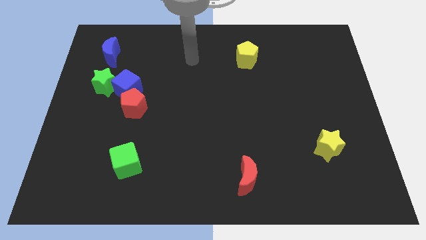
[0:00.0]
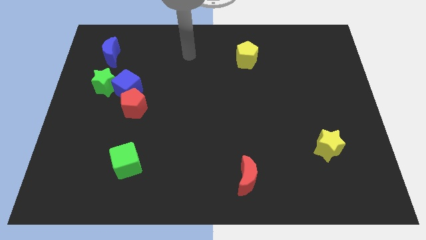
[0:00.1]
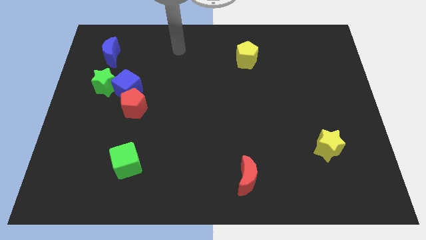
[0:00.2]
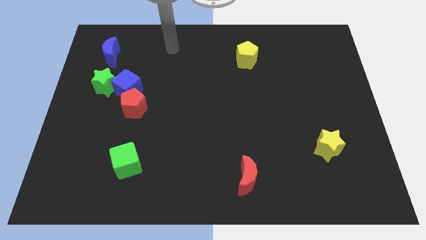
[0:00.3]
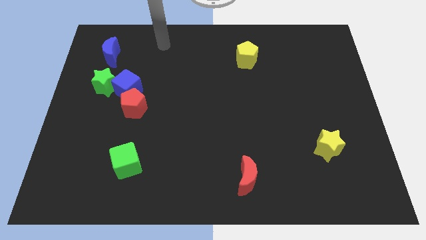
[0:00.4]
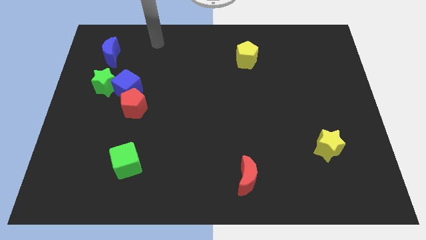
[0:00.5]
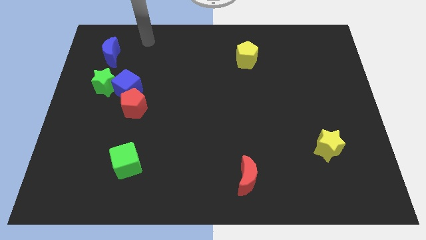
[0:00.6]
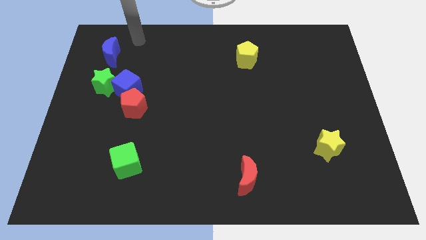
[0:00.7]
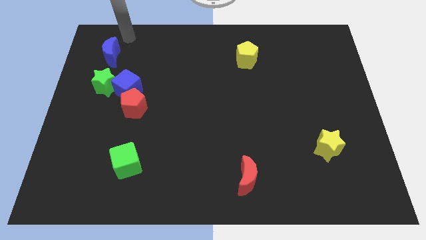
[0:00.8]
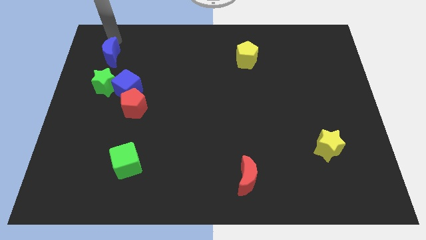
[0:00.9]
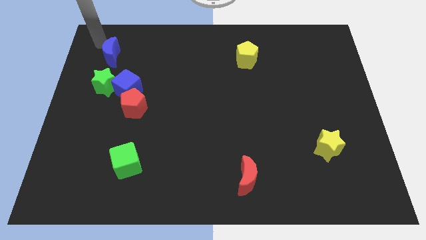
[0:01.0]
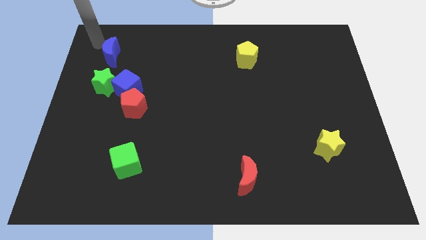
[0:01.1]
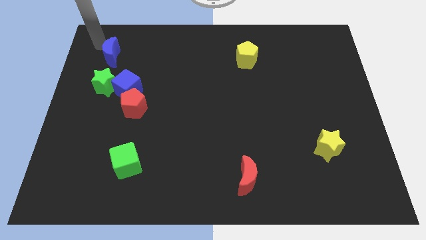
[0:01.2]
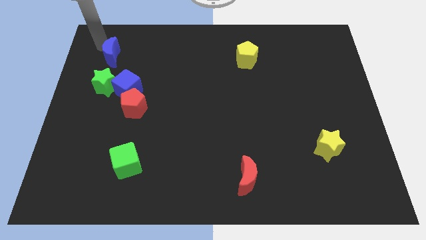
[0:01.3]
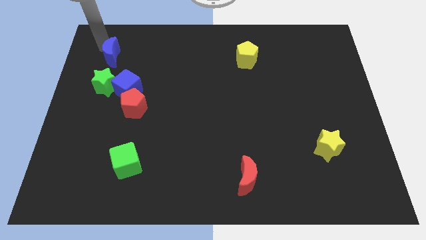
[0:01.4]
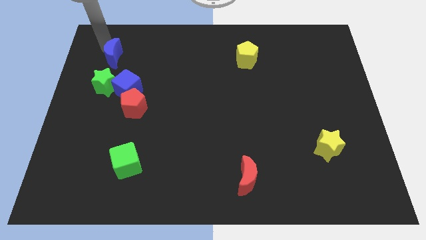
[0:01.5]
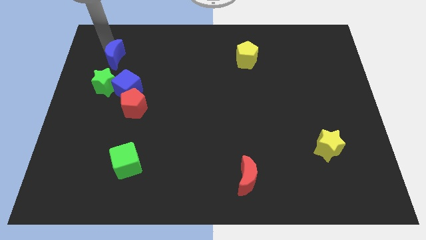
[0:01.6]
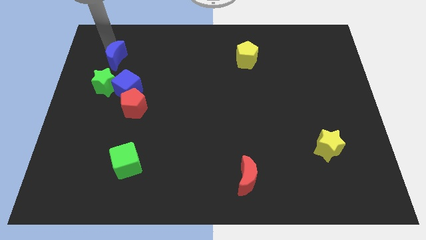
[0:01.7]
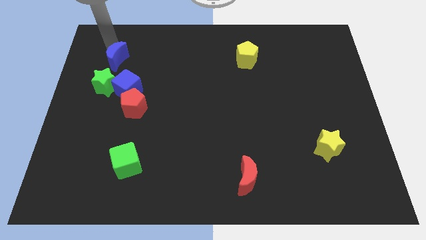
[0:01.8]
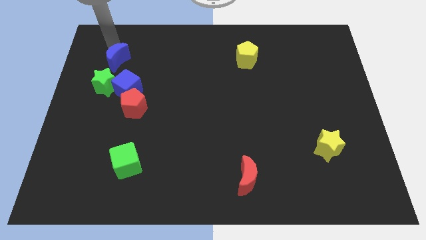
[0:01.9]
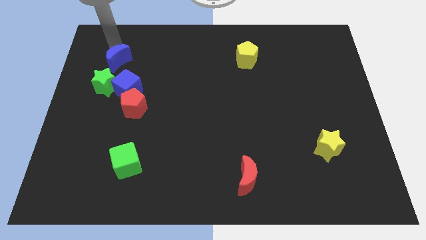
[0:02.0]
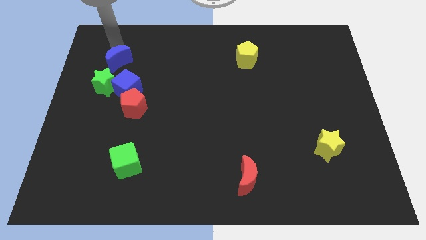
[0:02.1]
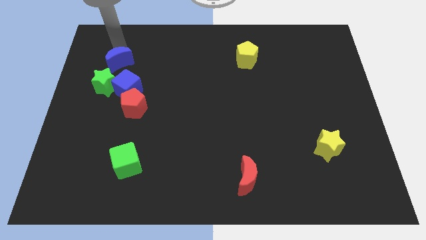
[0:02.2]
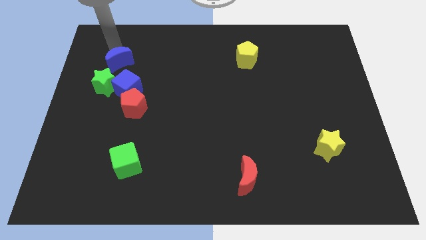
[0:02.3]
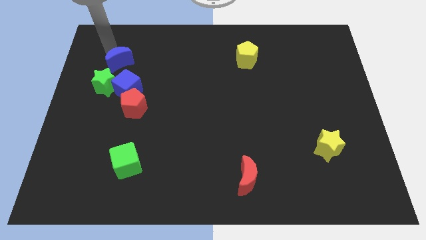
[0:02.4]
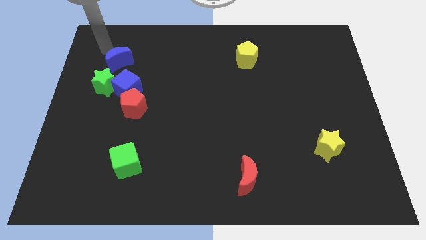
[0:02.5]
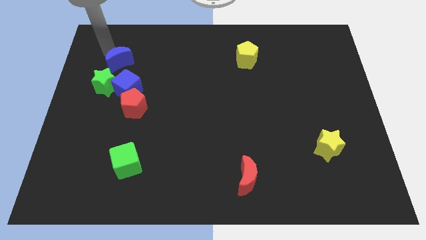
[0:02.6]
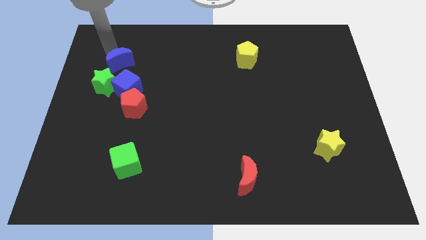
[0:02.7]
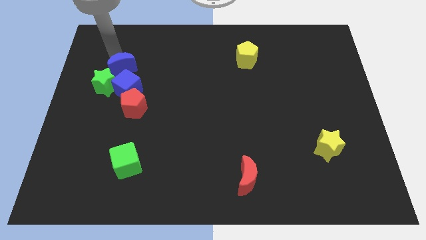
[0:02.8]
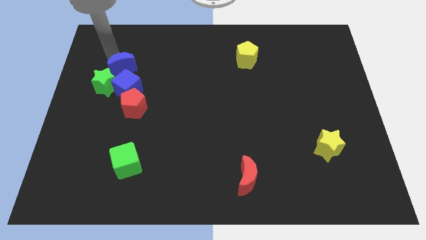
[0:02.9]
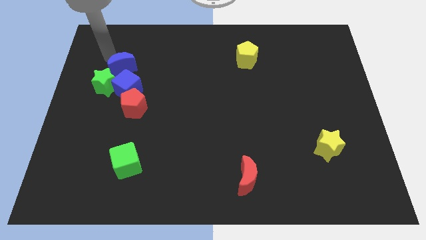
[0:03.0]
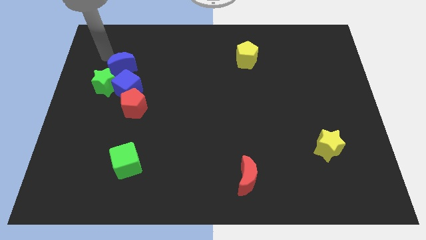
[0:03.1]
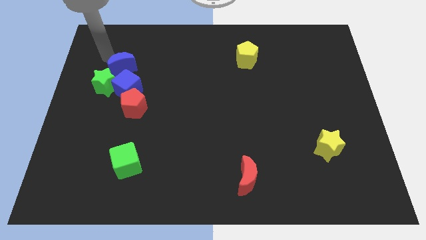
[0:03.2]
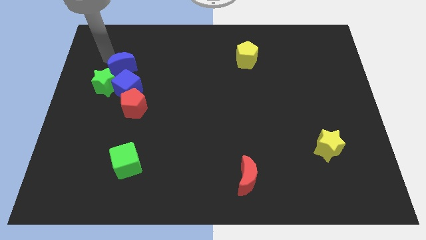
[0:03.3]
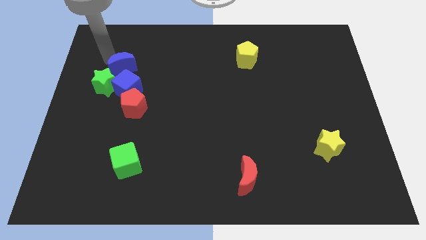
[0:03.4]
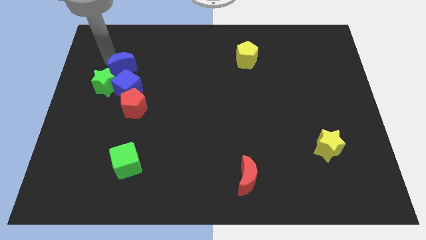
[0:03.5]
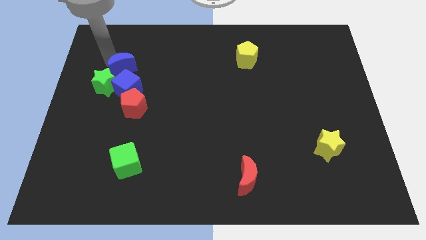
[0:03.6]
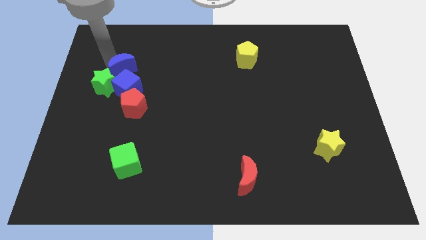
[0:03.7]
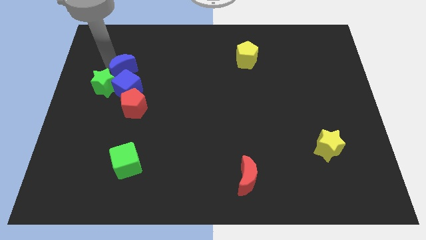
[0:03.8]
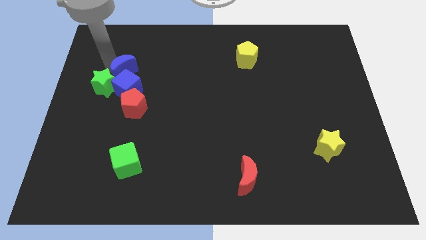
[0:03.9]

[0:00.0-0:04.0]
slightly slide the blue moon downwards and to the right diagonally

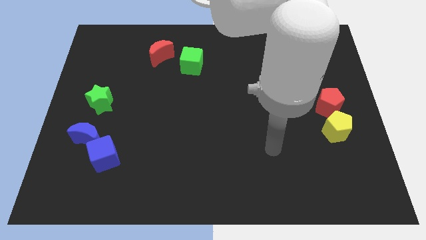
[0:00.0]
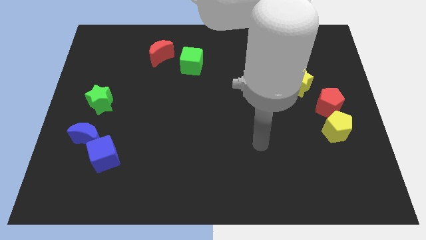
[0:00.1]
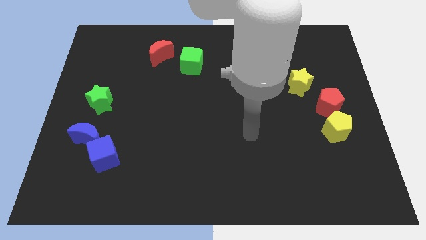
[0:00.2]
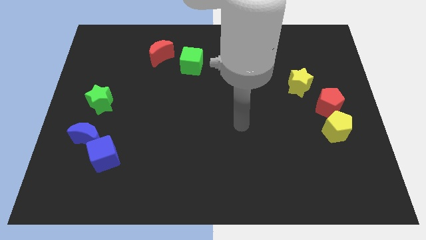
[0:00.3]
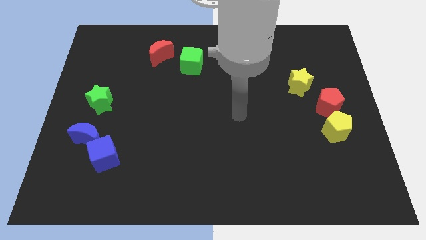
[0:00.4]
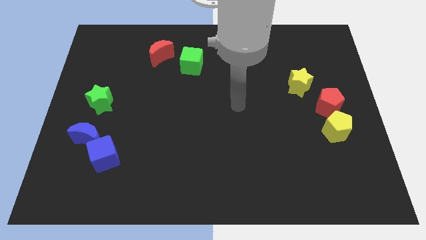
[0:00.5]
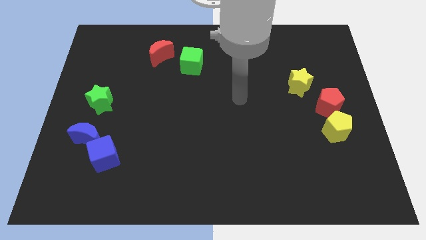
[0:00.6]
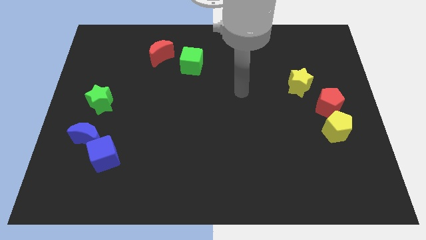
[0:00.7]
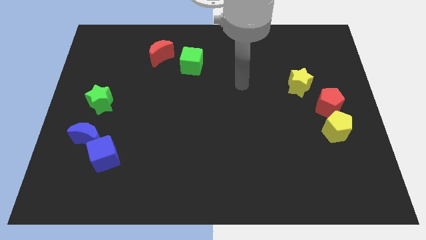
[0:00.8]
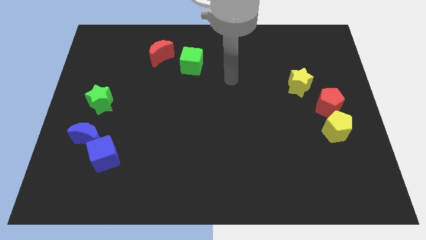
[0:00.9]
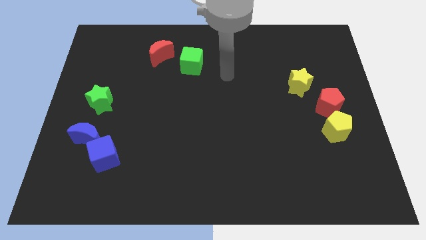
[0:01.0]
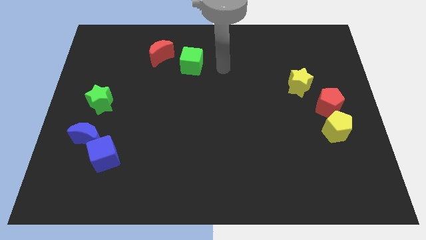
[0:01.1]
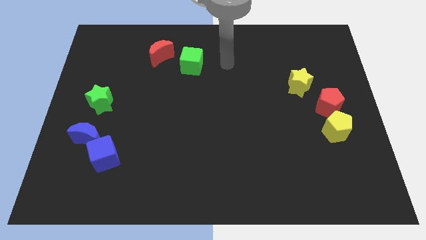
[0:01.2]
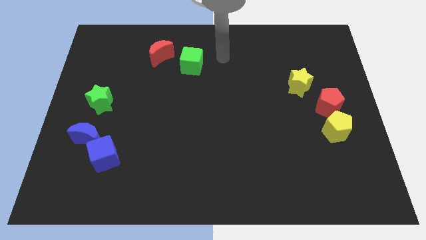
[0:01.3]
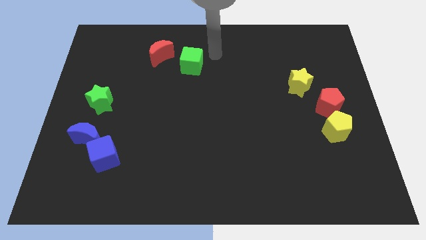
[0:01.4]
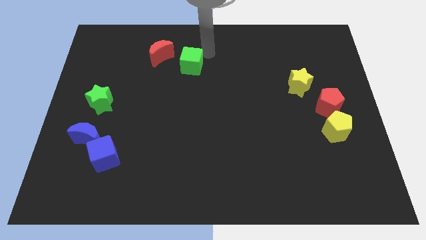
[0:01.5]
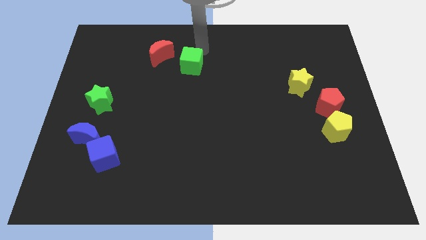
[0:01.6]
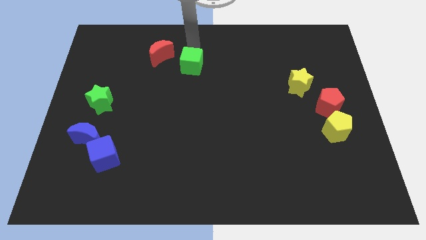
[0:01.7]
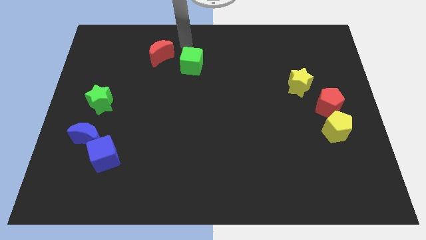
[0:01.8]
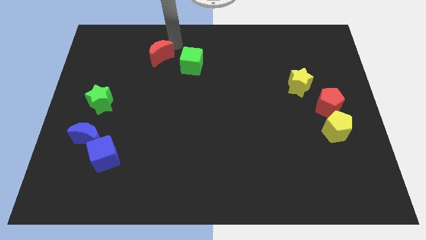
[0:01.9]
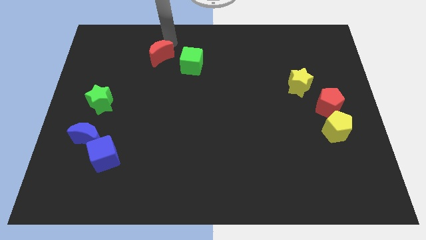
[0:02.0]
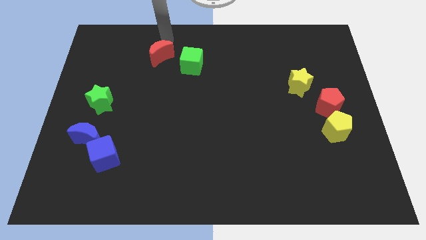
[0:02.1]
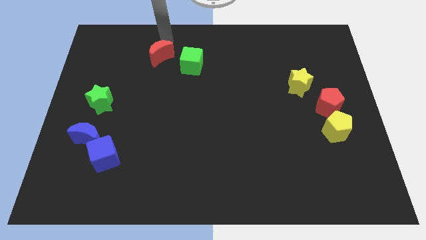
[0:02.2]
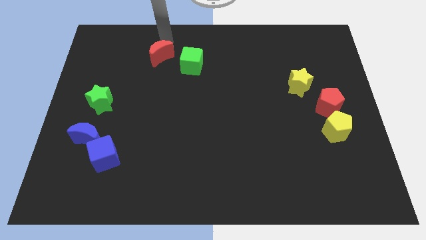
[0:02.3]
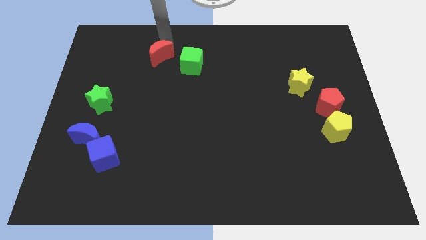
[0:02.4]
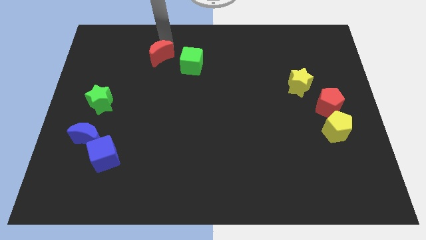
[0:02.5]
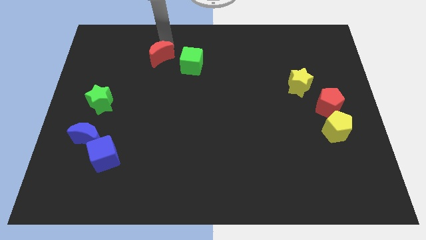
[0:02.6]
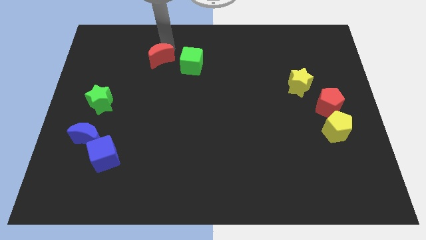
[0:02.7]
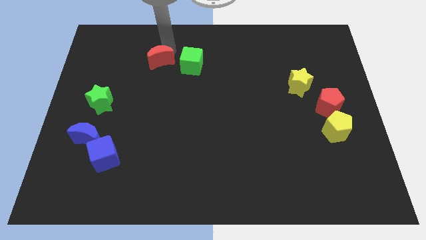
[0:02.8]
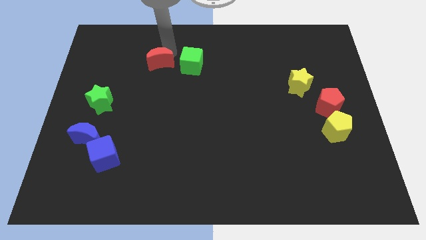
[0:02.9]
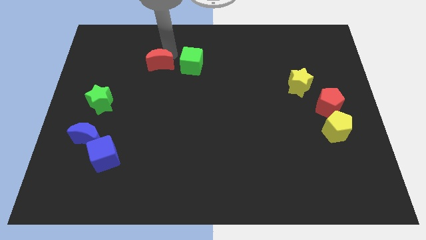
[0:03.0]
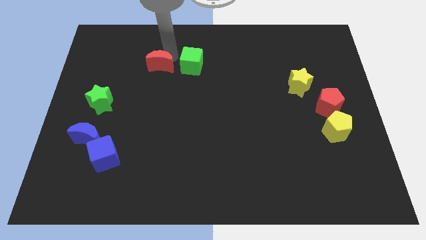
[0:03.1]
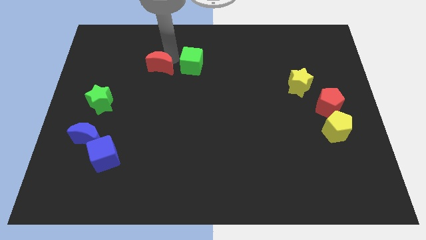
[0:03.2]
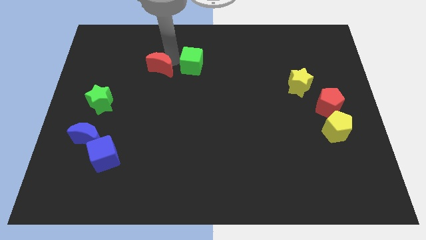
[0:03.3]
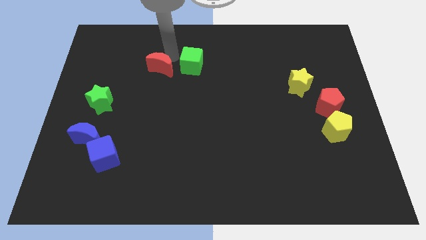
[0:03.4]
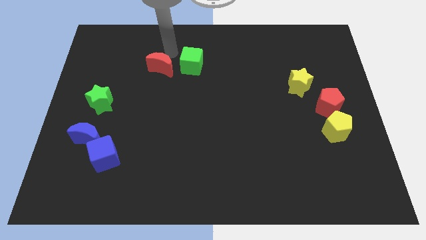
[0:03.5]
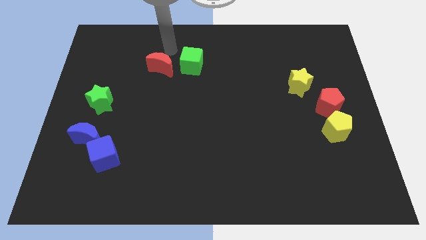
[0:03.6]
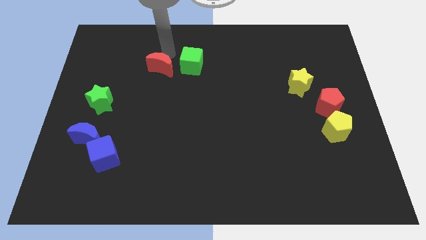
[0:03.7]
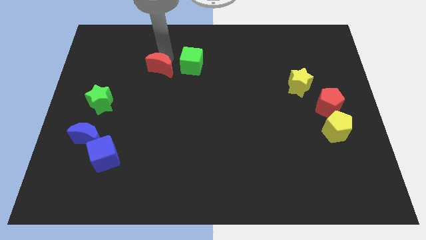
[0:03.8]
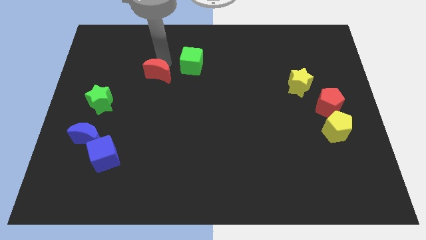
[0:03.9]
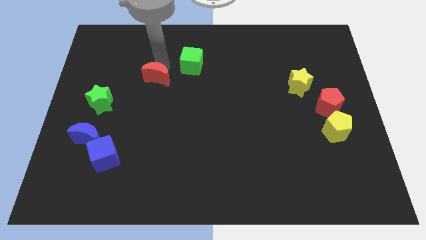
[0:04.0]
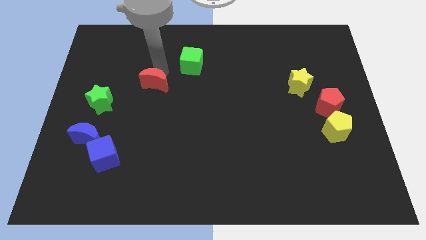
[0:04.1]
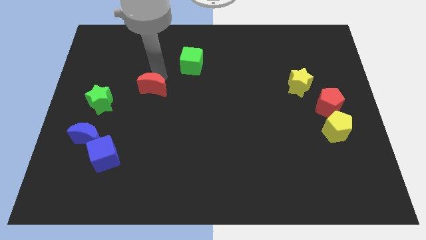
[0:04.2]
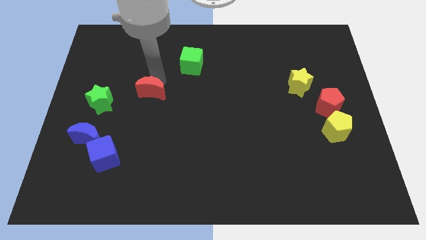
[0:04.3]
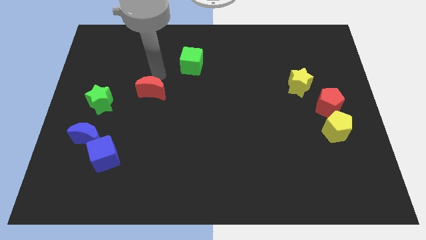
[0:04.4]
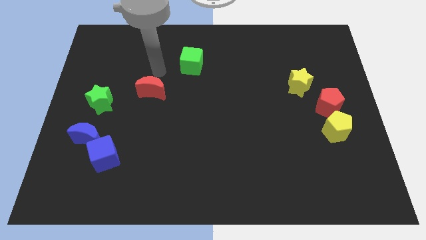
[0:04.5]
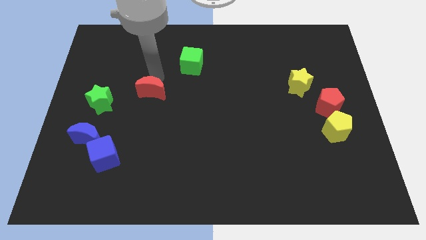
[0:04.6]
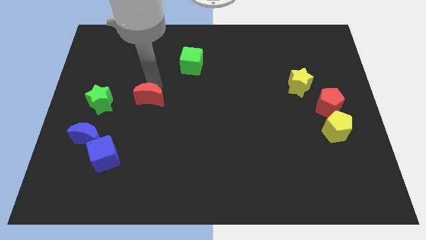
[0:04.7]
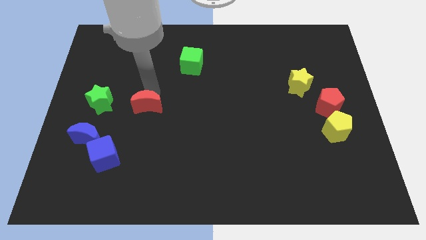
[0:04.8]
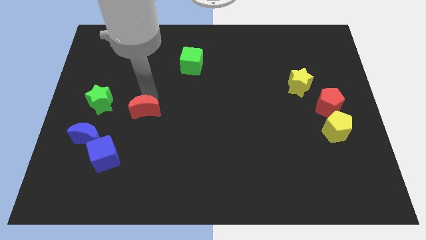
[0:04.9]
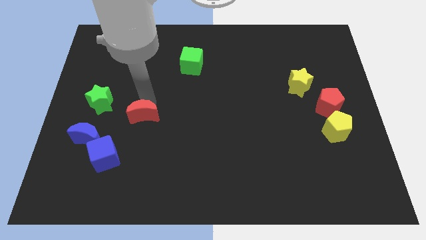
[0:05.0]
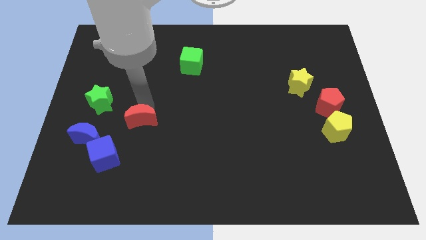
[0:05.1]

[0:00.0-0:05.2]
push the red moon downwards
